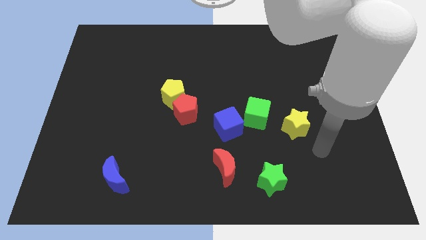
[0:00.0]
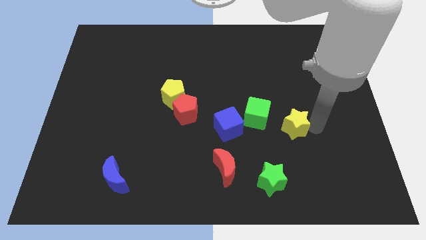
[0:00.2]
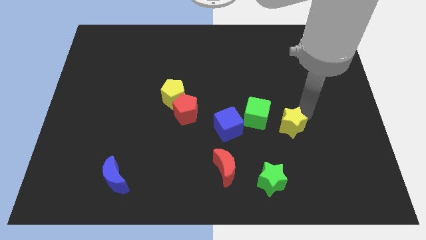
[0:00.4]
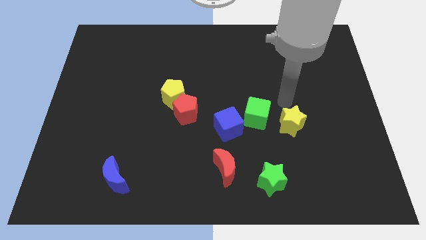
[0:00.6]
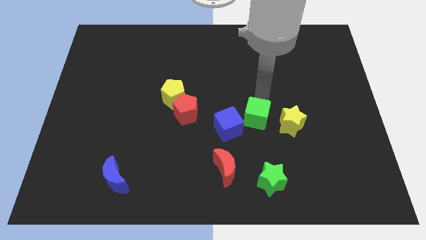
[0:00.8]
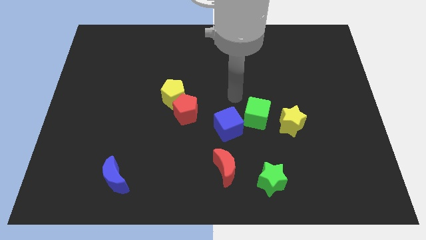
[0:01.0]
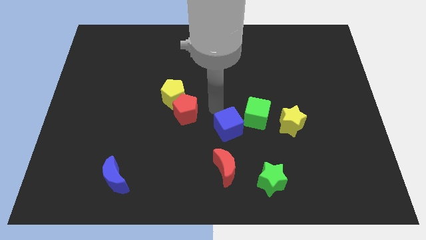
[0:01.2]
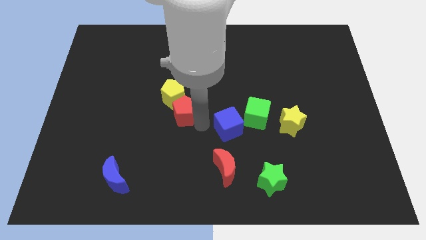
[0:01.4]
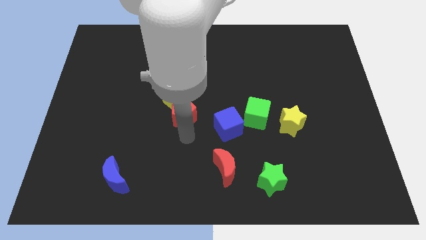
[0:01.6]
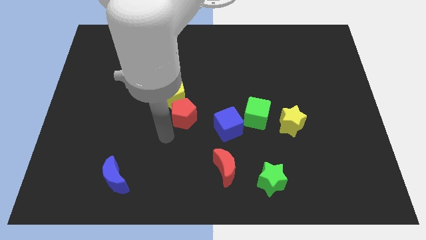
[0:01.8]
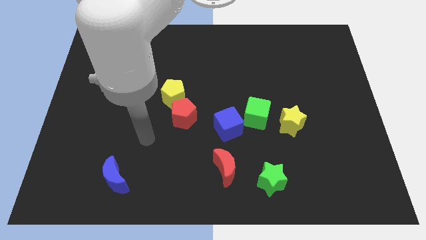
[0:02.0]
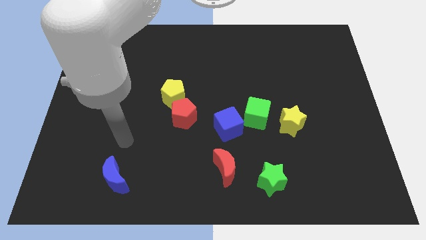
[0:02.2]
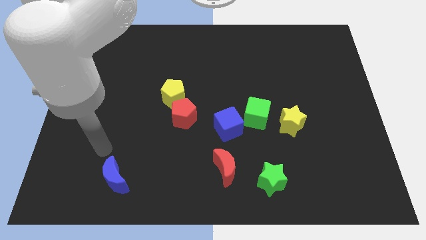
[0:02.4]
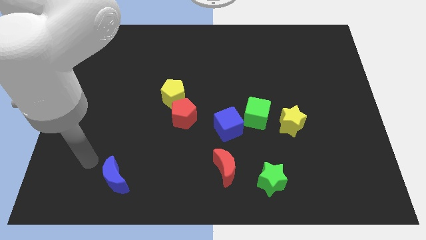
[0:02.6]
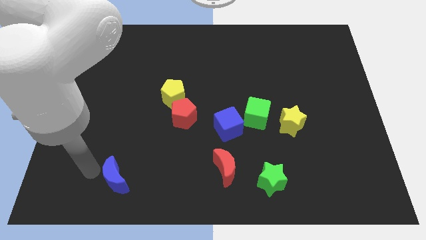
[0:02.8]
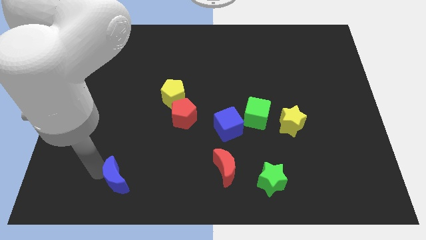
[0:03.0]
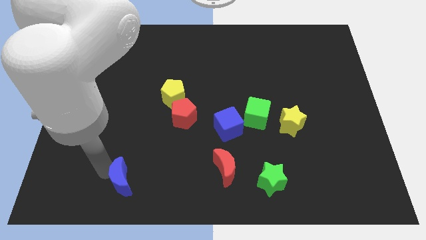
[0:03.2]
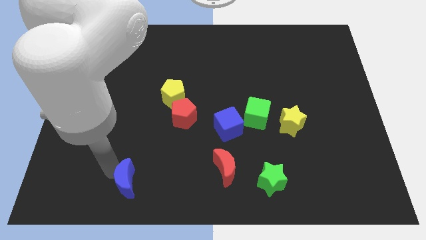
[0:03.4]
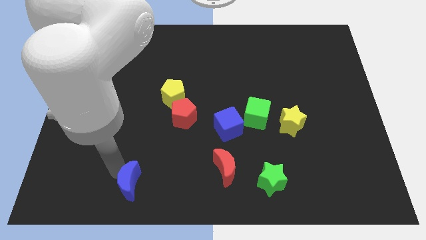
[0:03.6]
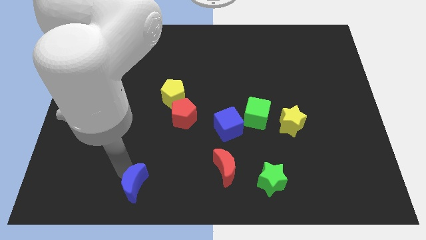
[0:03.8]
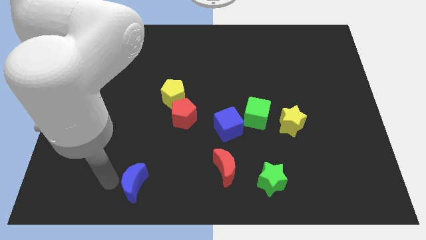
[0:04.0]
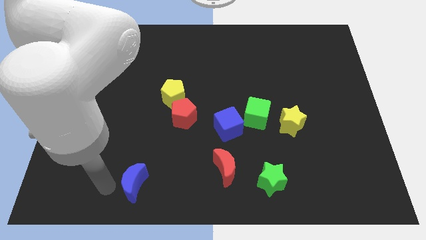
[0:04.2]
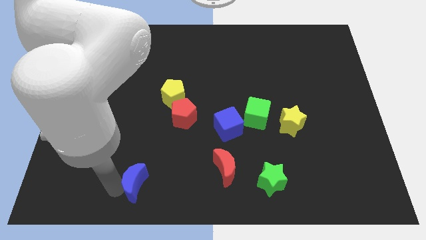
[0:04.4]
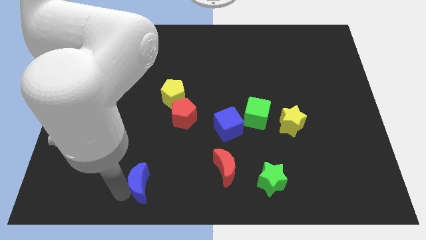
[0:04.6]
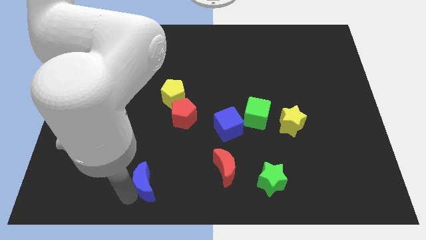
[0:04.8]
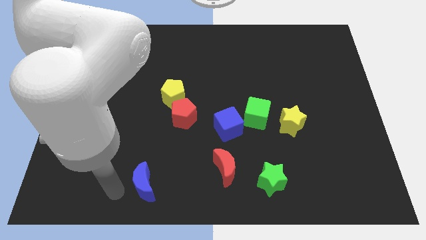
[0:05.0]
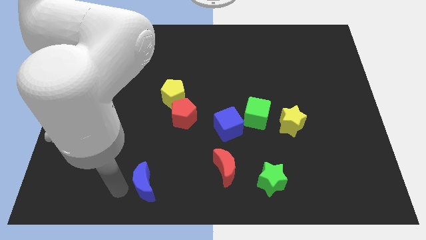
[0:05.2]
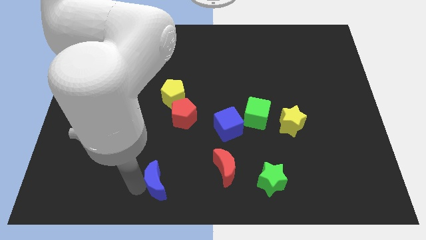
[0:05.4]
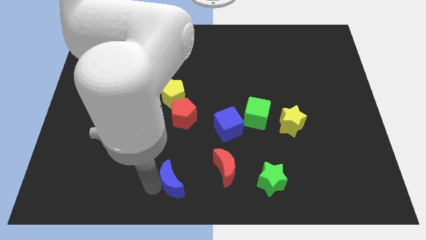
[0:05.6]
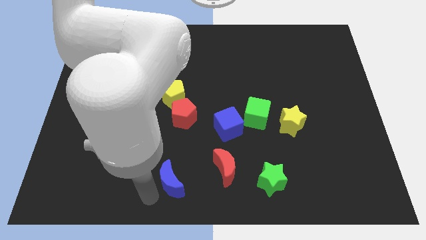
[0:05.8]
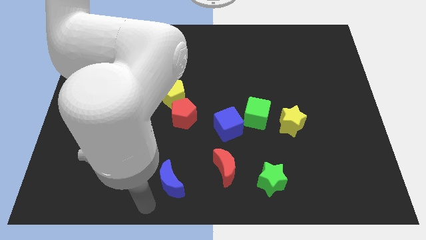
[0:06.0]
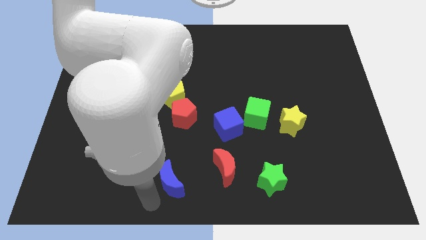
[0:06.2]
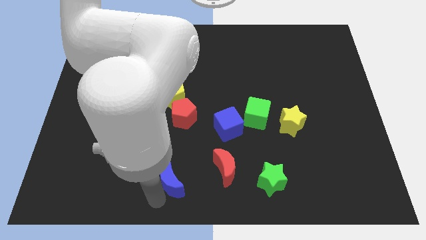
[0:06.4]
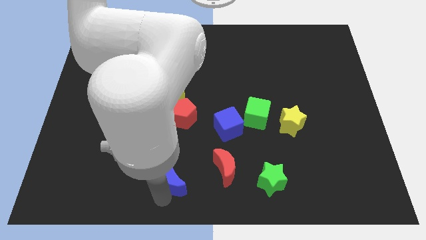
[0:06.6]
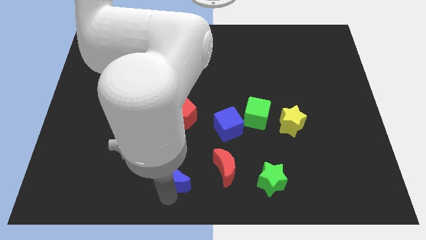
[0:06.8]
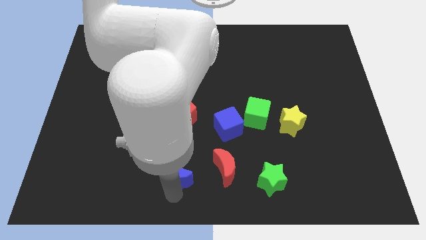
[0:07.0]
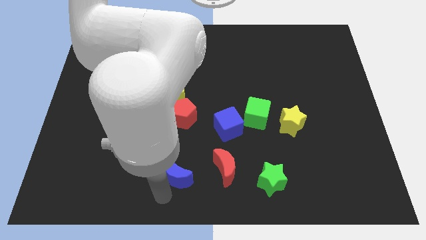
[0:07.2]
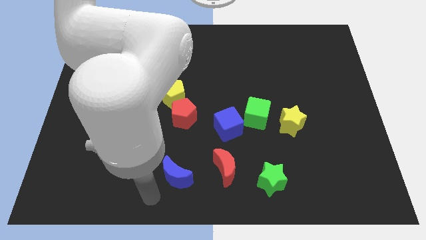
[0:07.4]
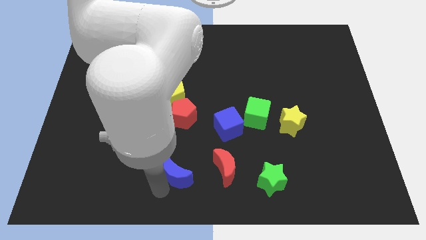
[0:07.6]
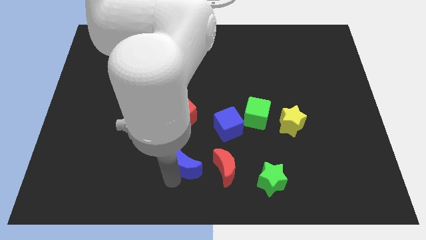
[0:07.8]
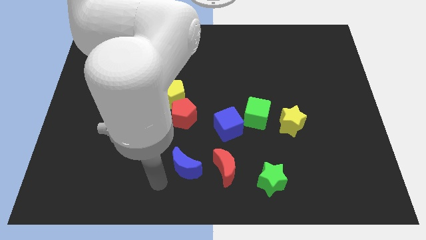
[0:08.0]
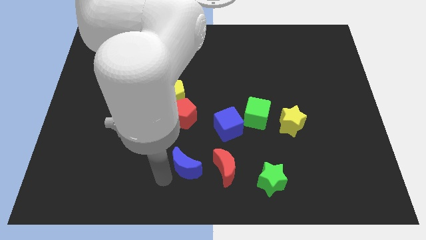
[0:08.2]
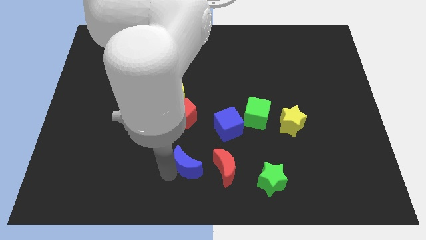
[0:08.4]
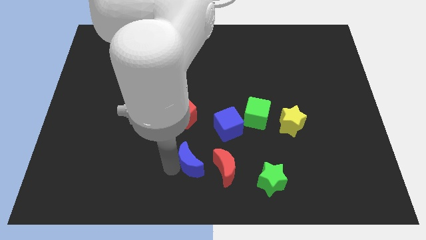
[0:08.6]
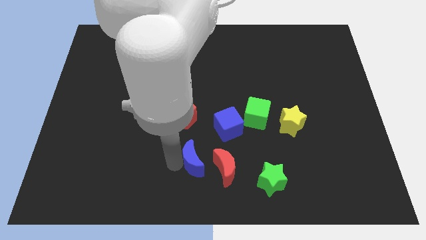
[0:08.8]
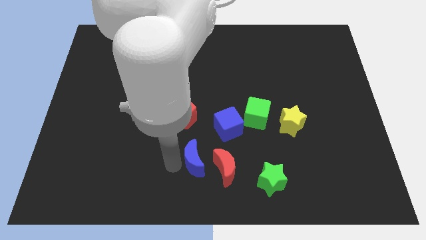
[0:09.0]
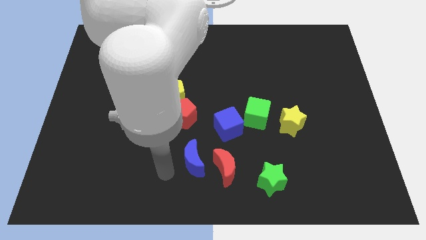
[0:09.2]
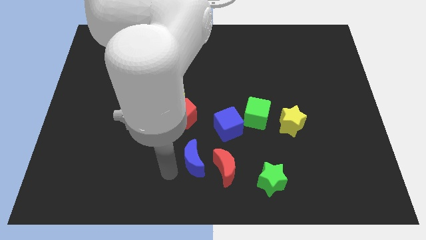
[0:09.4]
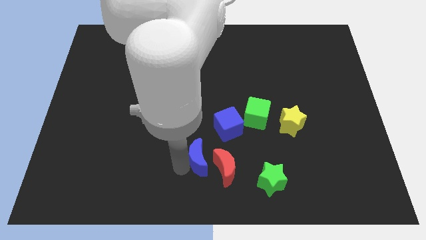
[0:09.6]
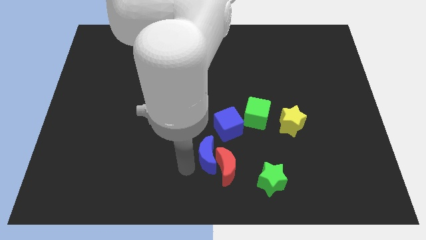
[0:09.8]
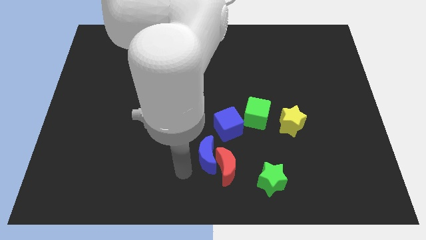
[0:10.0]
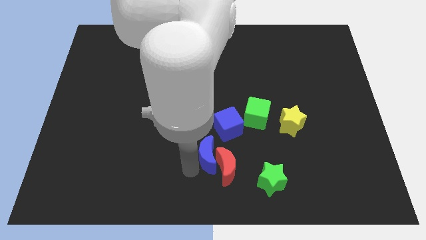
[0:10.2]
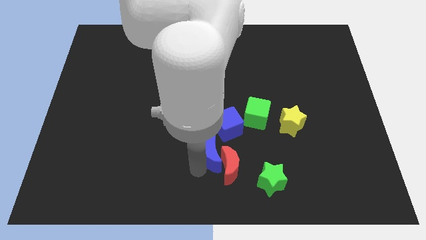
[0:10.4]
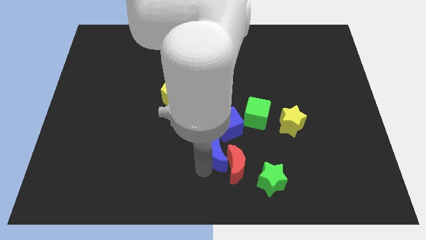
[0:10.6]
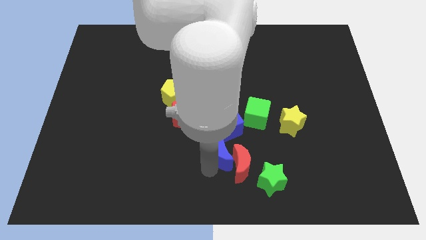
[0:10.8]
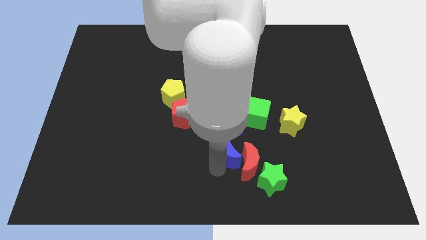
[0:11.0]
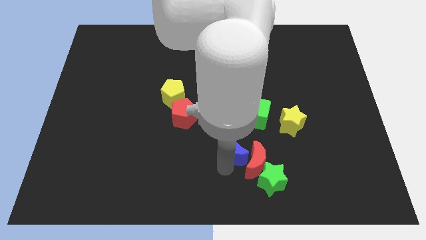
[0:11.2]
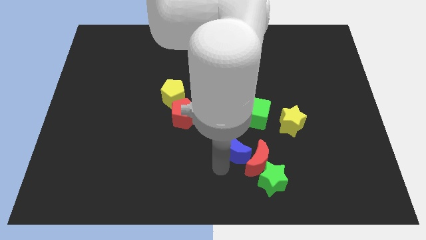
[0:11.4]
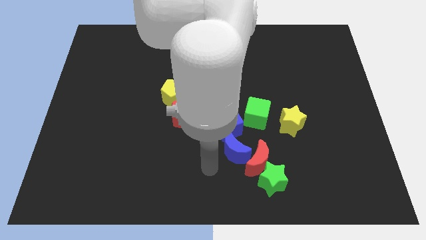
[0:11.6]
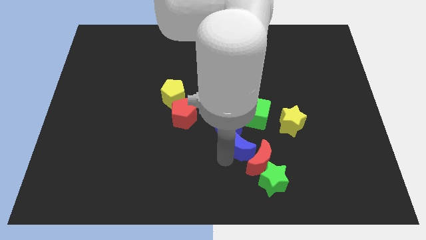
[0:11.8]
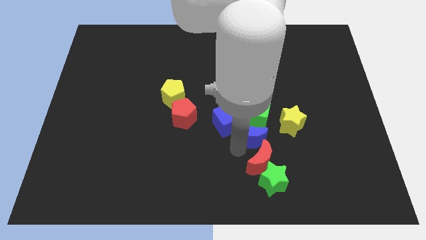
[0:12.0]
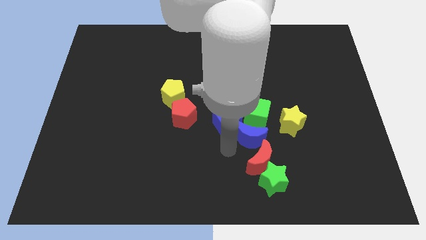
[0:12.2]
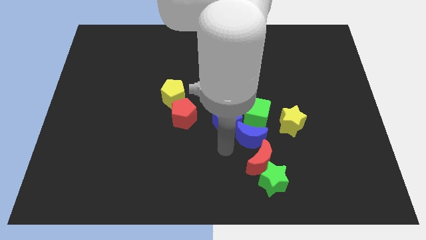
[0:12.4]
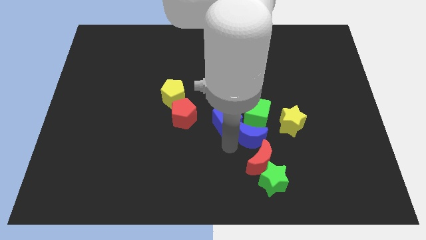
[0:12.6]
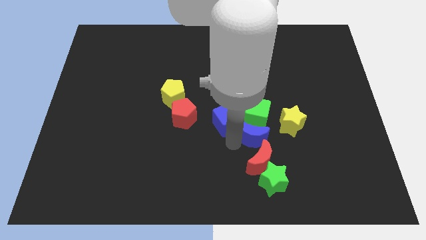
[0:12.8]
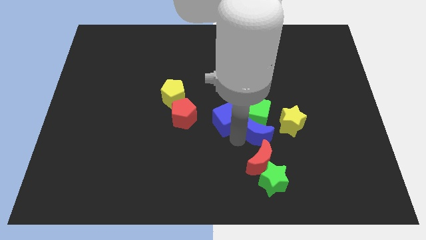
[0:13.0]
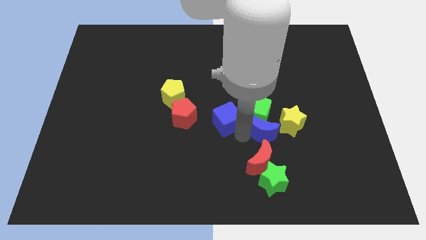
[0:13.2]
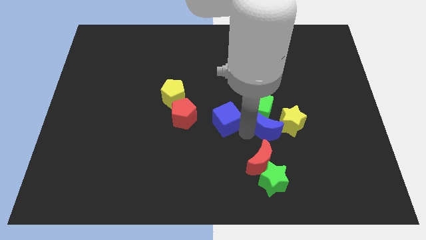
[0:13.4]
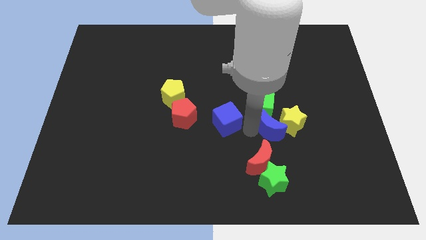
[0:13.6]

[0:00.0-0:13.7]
push the blue moon diagonally up and to the left of the yellow star
